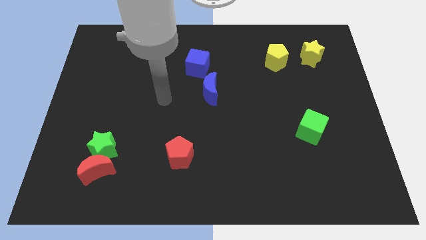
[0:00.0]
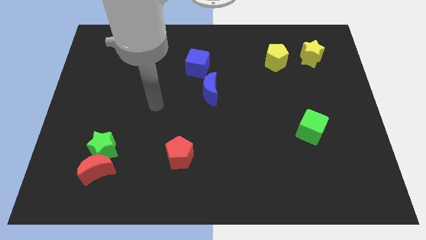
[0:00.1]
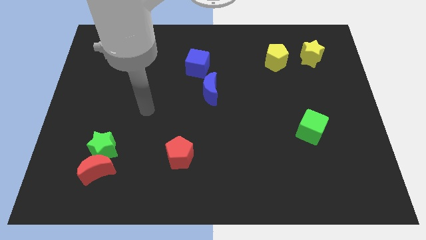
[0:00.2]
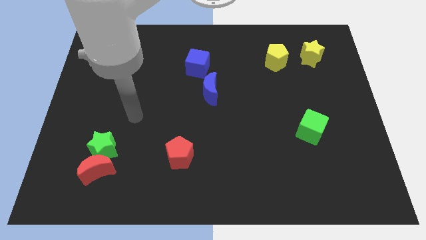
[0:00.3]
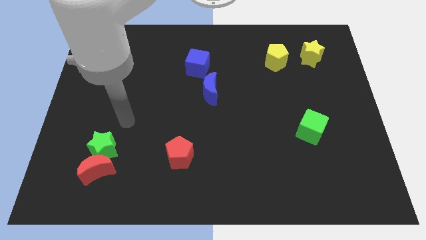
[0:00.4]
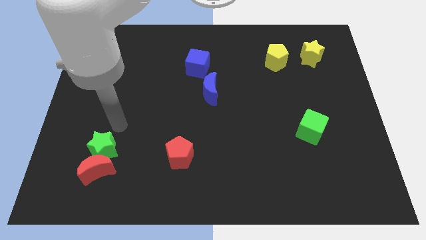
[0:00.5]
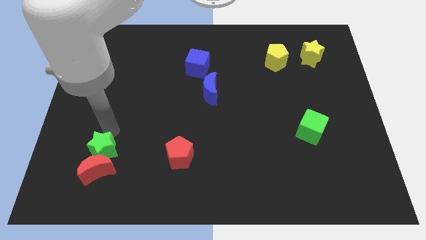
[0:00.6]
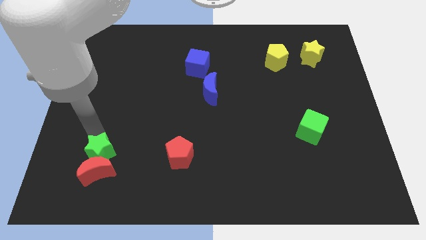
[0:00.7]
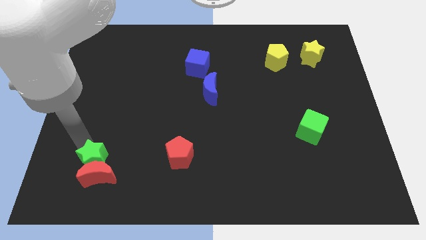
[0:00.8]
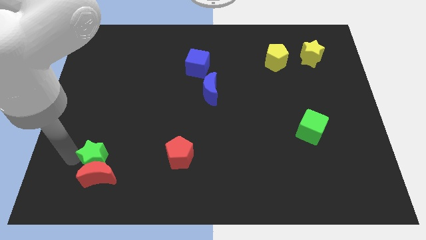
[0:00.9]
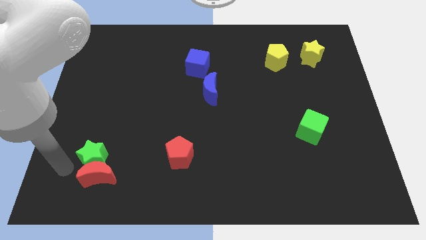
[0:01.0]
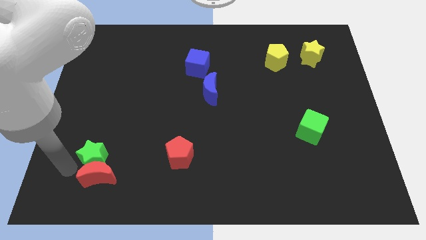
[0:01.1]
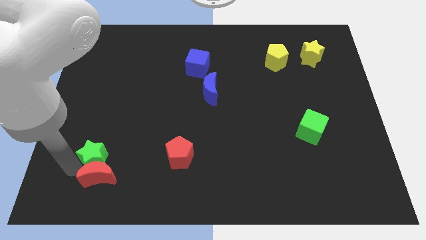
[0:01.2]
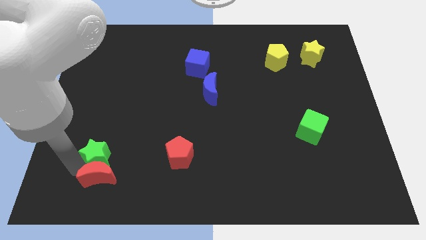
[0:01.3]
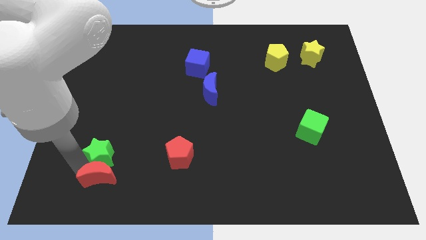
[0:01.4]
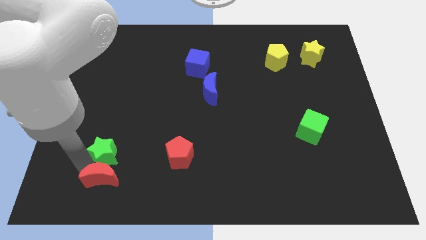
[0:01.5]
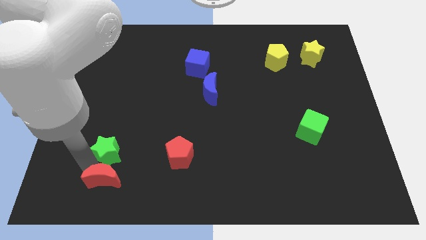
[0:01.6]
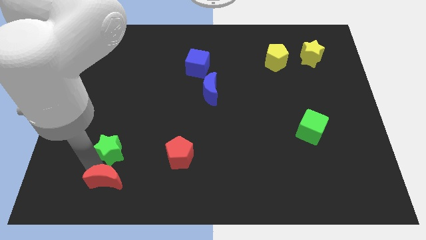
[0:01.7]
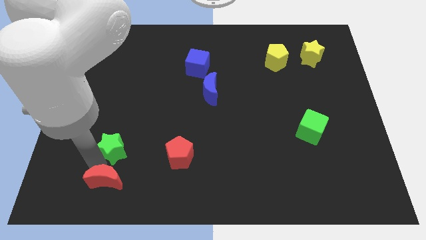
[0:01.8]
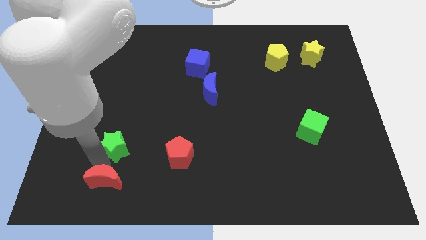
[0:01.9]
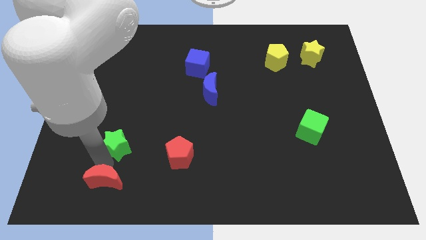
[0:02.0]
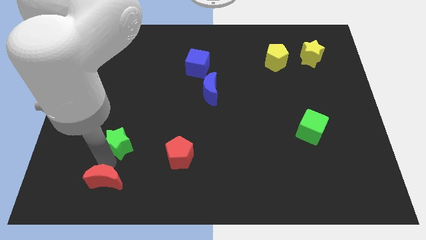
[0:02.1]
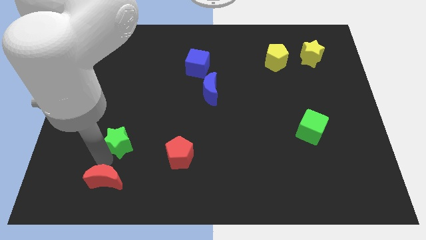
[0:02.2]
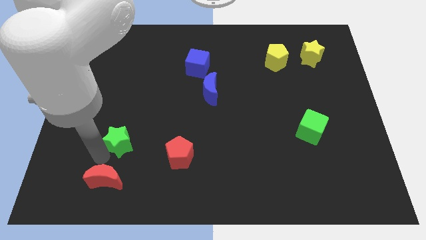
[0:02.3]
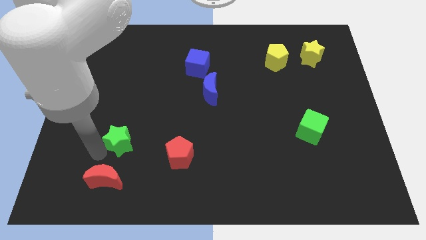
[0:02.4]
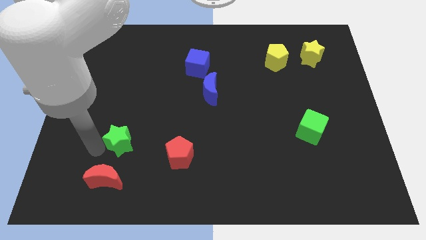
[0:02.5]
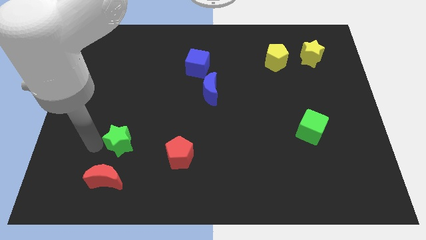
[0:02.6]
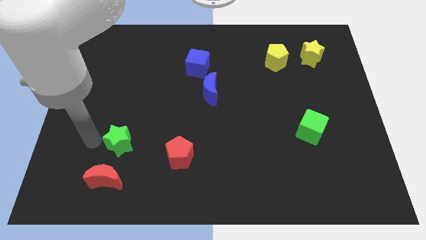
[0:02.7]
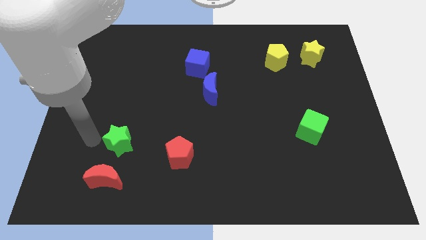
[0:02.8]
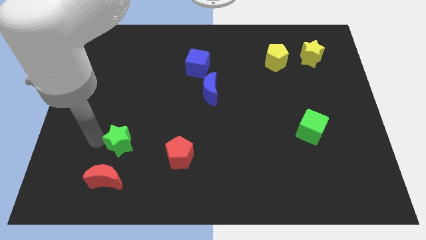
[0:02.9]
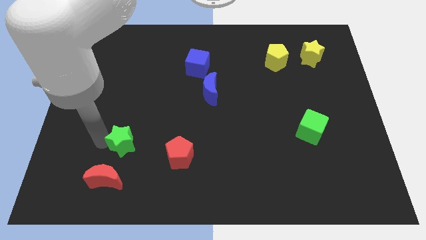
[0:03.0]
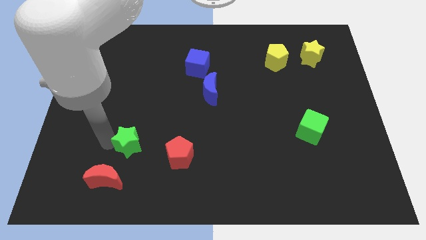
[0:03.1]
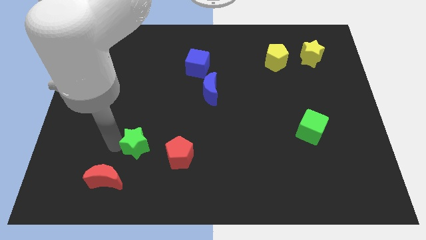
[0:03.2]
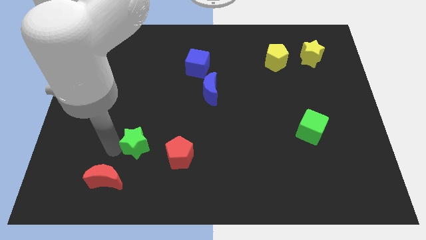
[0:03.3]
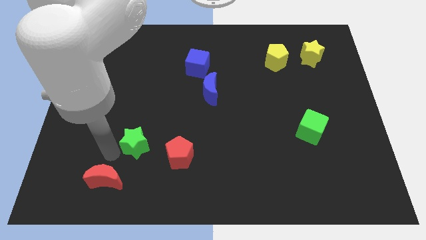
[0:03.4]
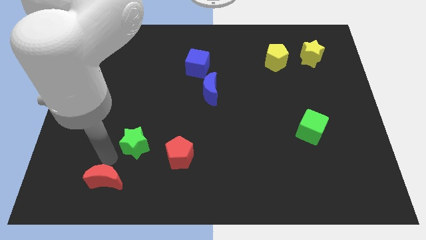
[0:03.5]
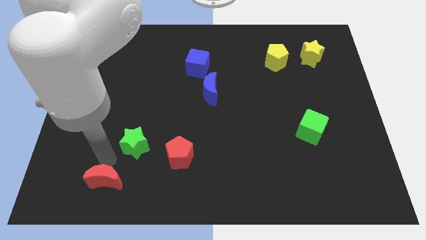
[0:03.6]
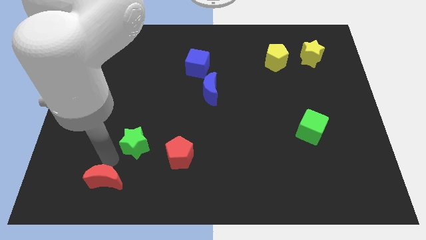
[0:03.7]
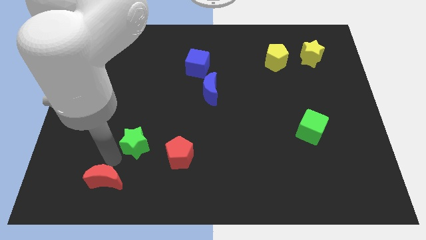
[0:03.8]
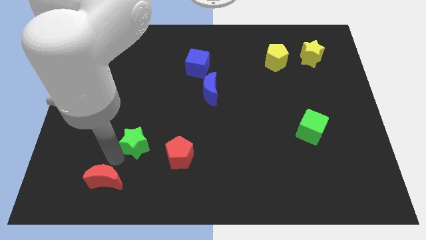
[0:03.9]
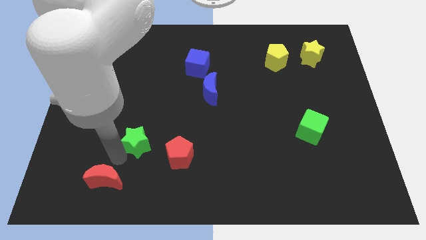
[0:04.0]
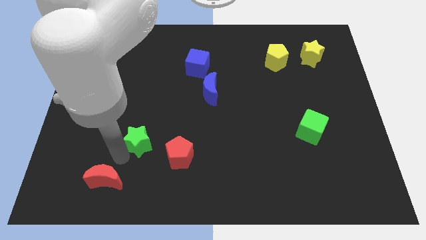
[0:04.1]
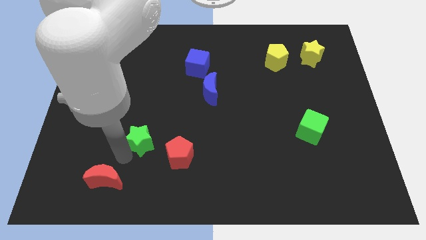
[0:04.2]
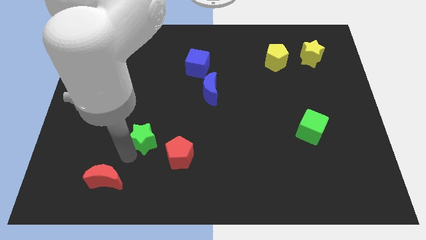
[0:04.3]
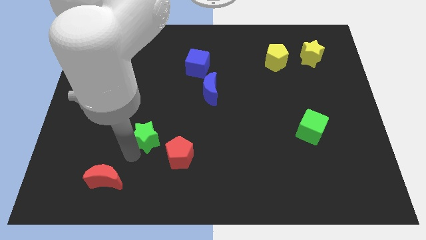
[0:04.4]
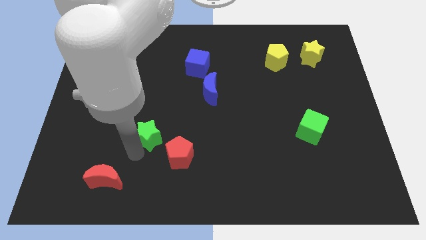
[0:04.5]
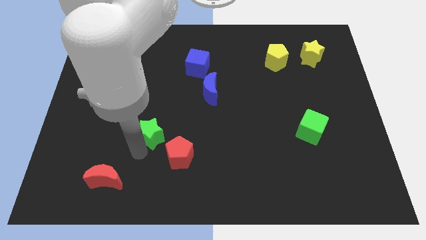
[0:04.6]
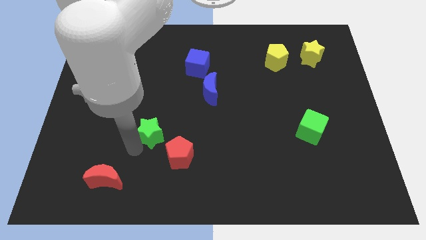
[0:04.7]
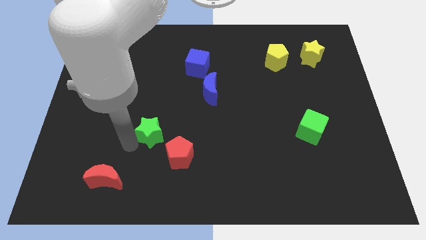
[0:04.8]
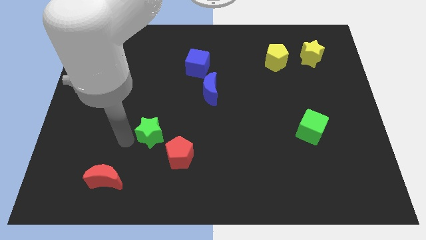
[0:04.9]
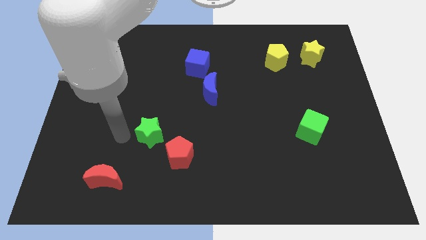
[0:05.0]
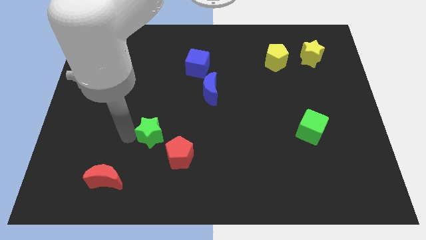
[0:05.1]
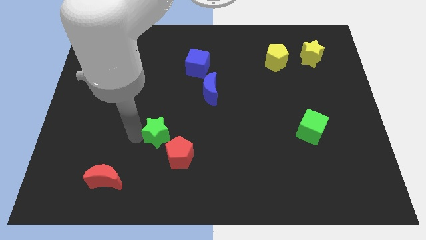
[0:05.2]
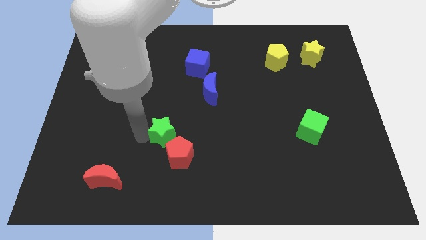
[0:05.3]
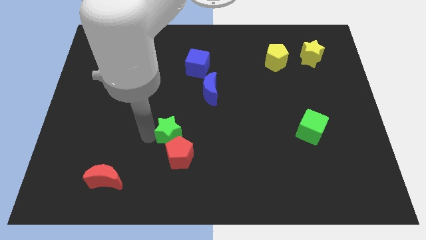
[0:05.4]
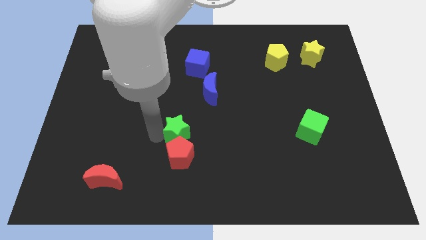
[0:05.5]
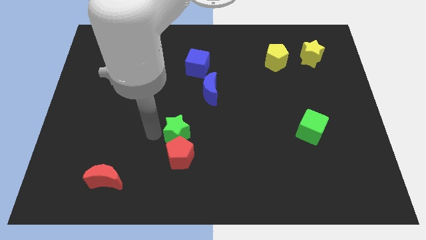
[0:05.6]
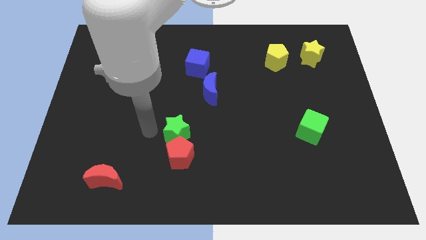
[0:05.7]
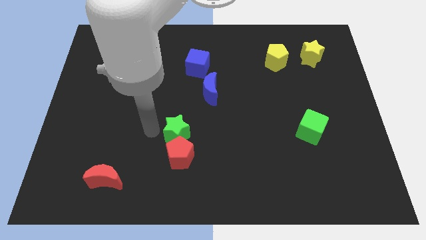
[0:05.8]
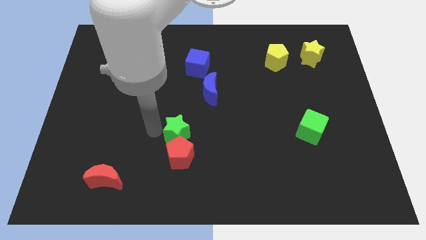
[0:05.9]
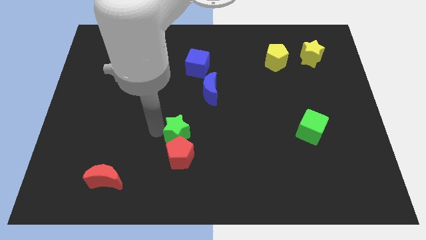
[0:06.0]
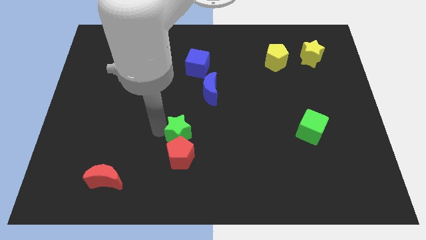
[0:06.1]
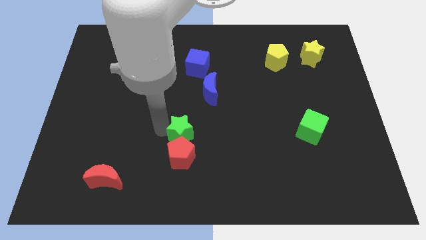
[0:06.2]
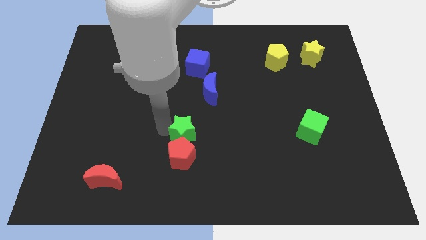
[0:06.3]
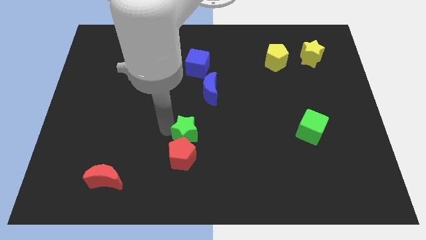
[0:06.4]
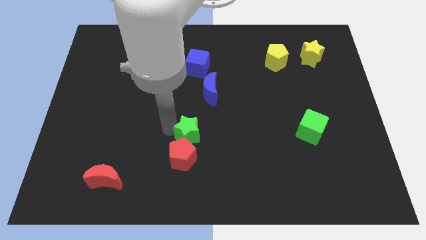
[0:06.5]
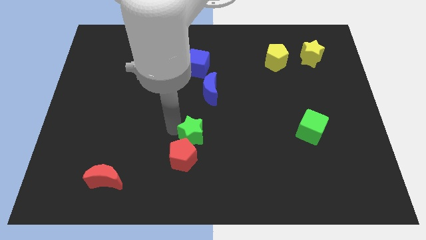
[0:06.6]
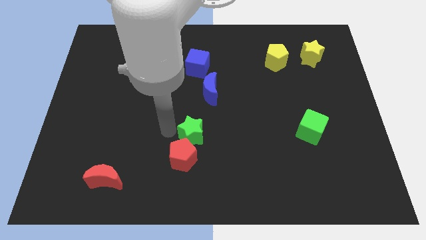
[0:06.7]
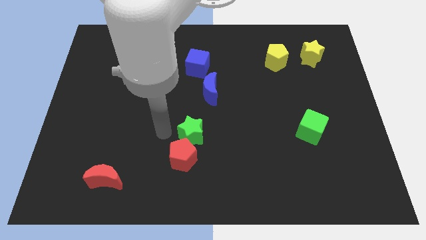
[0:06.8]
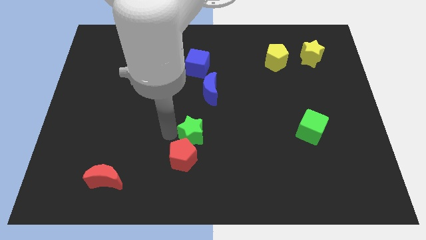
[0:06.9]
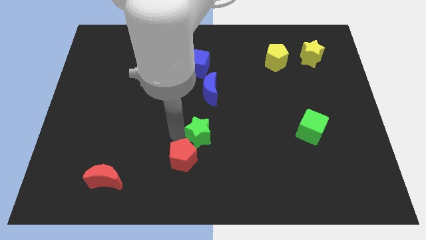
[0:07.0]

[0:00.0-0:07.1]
move the green star to the right

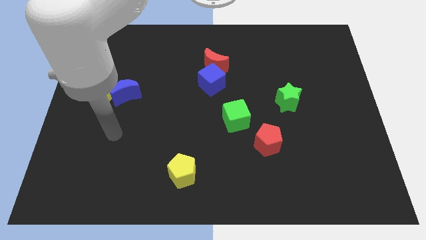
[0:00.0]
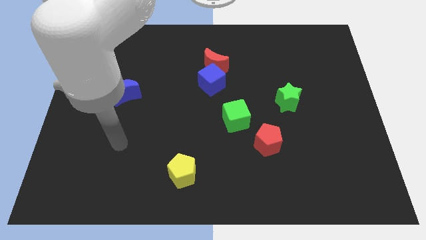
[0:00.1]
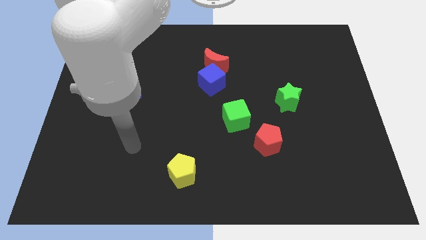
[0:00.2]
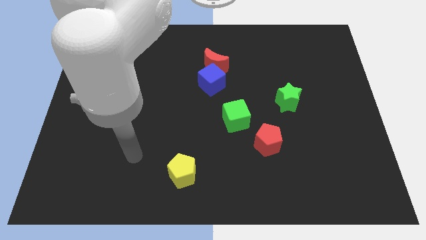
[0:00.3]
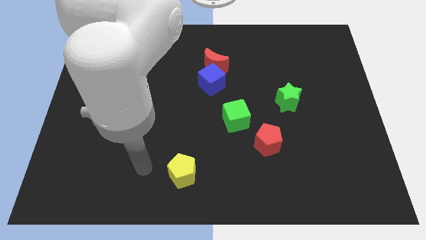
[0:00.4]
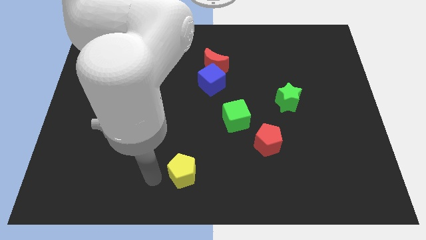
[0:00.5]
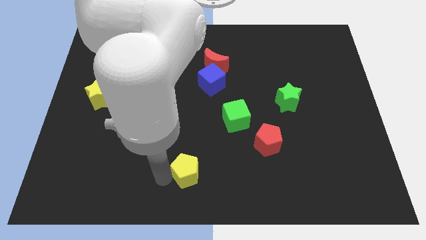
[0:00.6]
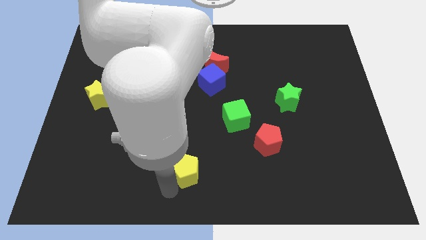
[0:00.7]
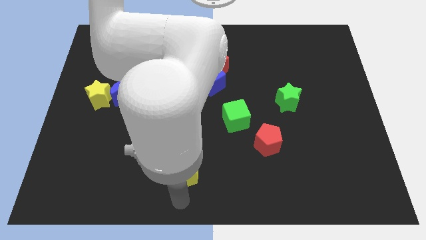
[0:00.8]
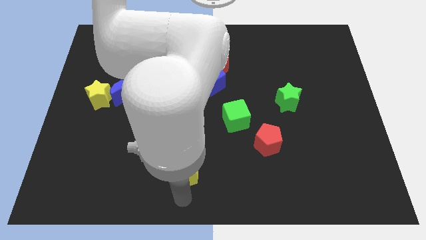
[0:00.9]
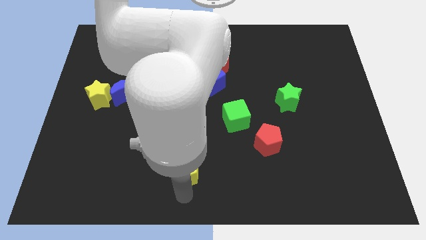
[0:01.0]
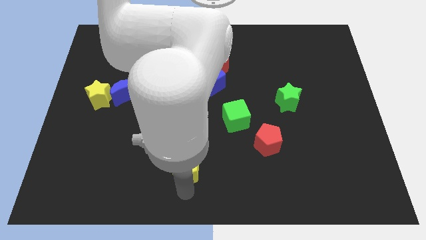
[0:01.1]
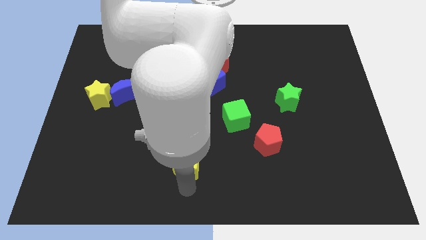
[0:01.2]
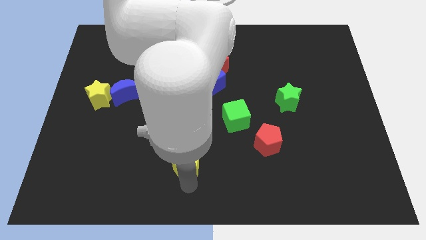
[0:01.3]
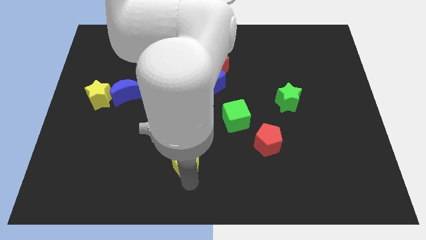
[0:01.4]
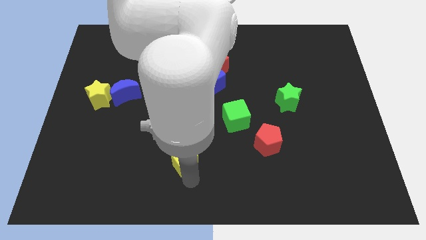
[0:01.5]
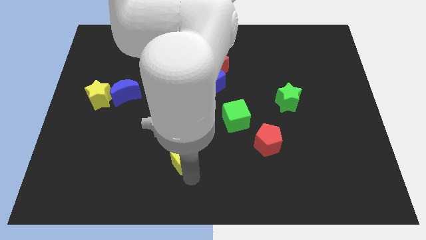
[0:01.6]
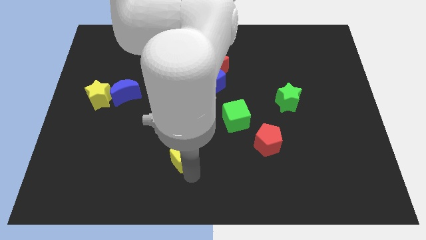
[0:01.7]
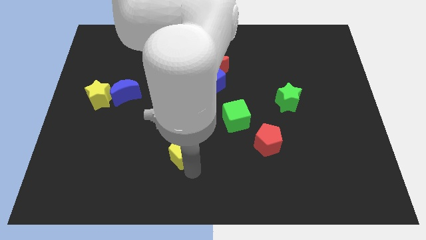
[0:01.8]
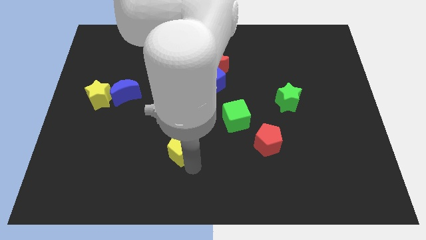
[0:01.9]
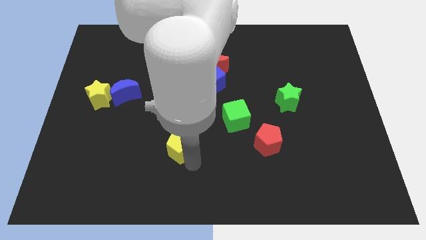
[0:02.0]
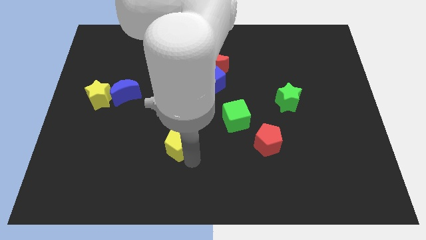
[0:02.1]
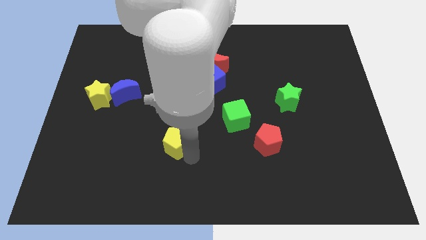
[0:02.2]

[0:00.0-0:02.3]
slide the yellow pentagon slightly upwards
